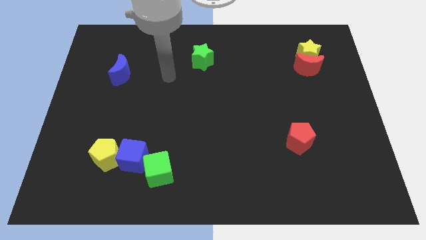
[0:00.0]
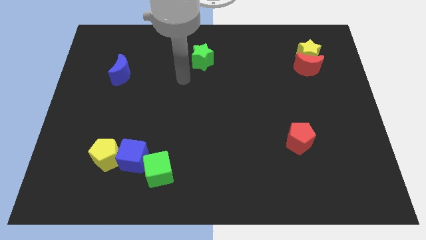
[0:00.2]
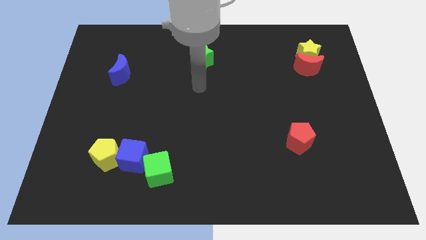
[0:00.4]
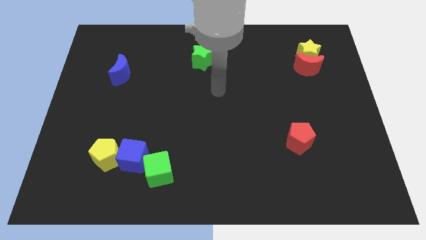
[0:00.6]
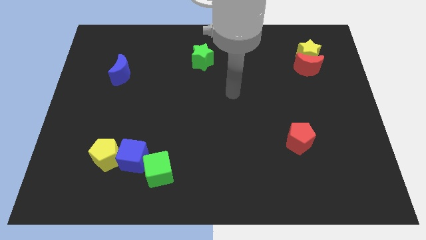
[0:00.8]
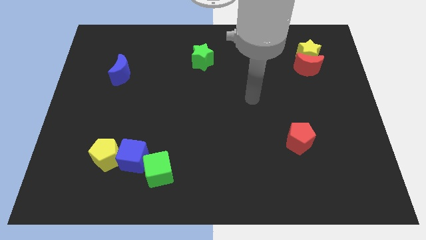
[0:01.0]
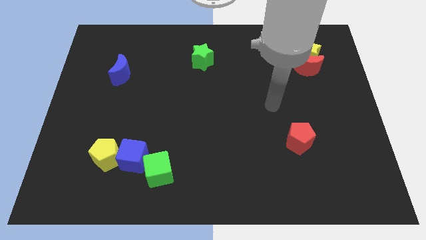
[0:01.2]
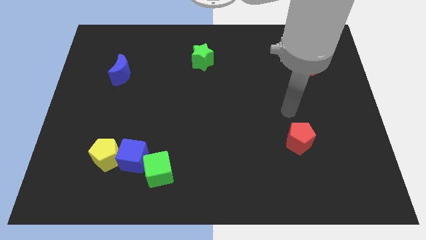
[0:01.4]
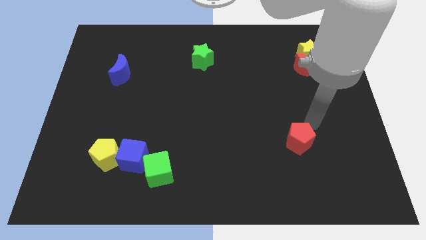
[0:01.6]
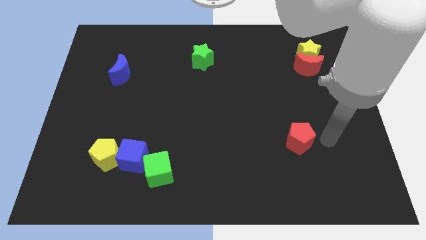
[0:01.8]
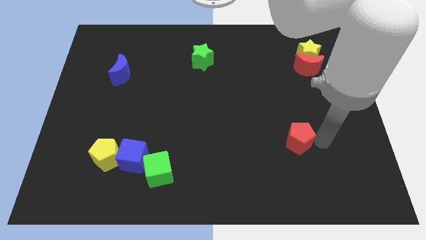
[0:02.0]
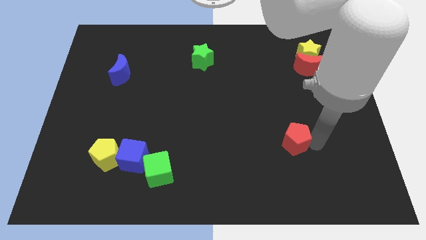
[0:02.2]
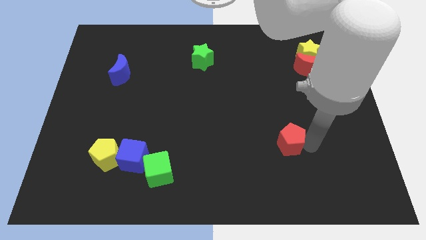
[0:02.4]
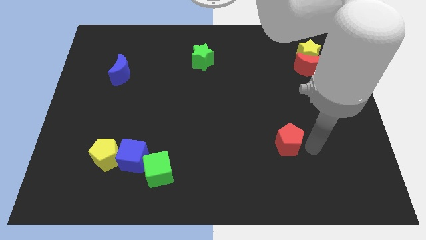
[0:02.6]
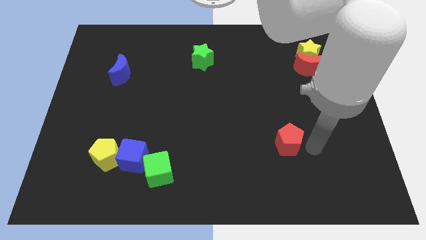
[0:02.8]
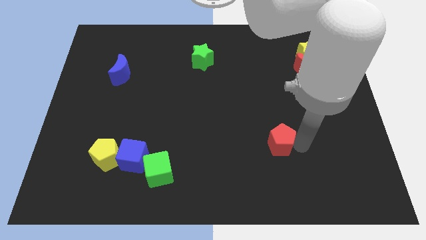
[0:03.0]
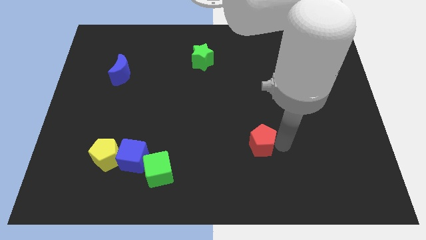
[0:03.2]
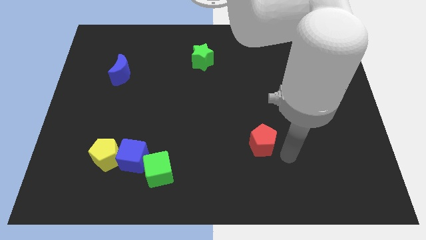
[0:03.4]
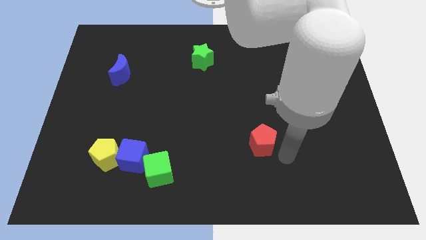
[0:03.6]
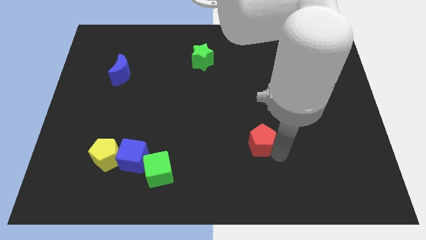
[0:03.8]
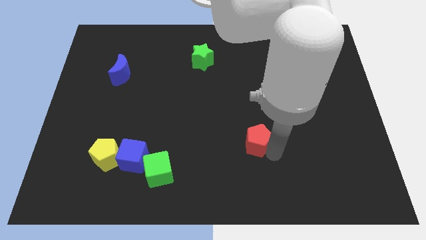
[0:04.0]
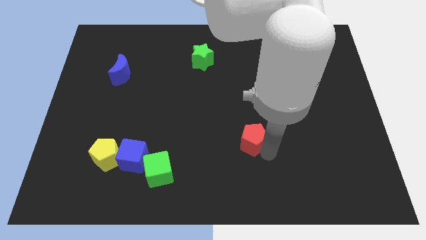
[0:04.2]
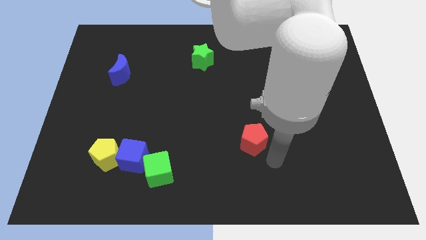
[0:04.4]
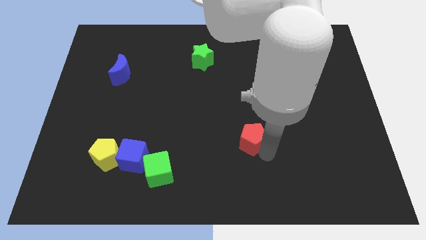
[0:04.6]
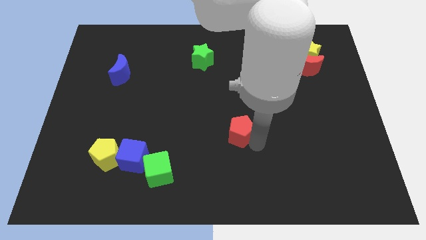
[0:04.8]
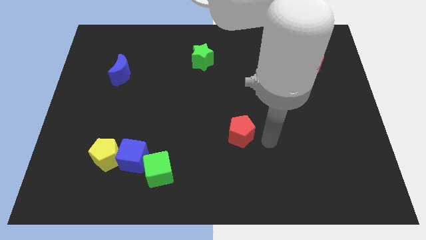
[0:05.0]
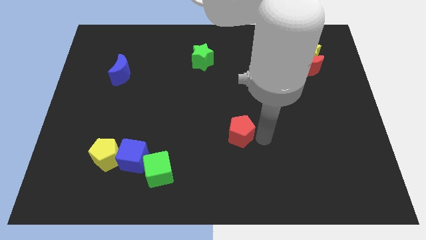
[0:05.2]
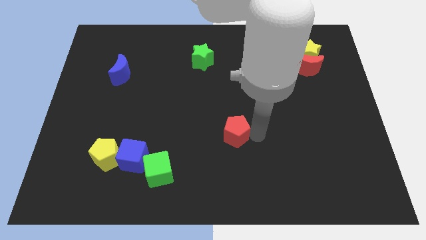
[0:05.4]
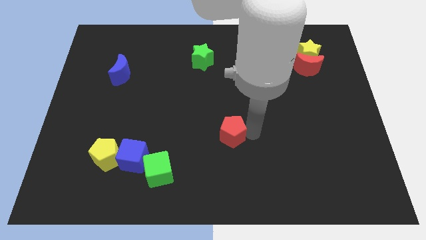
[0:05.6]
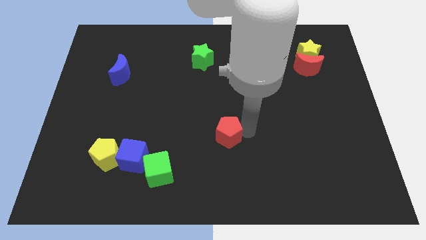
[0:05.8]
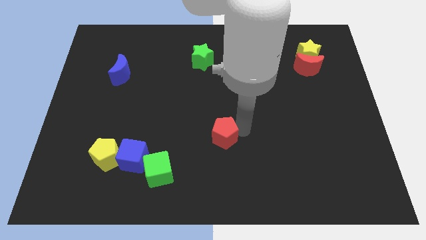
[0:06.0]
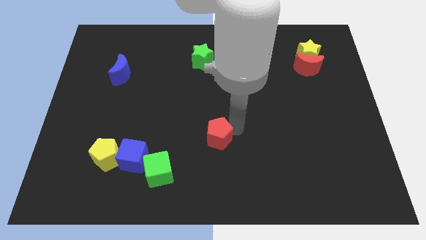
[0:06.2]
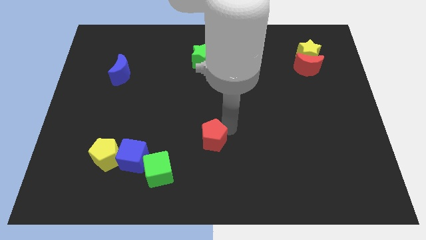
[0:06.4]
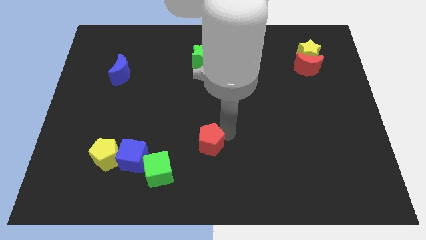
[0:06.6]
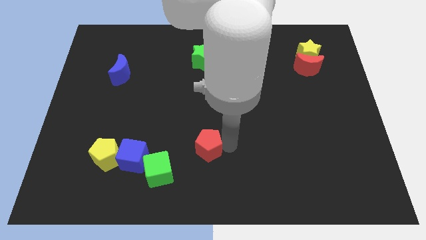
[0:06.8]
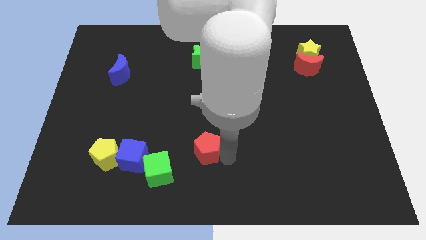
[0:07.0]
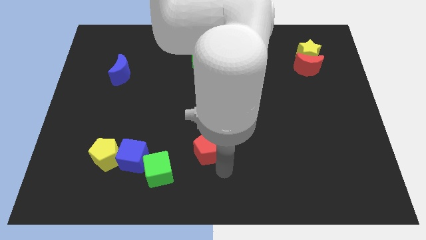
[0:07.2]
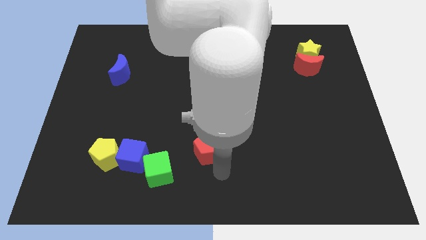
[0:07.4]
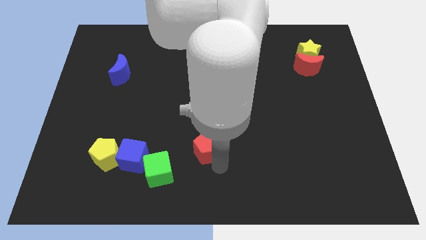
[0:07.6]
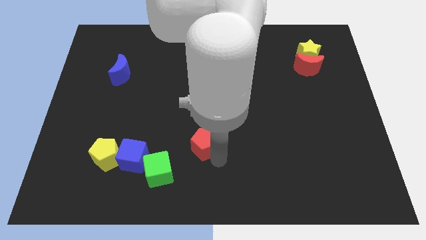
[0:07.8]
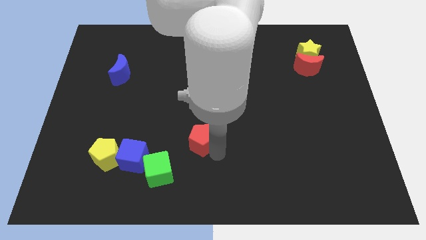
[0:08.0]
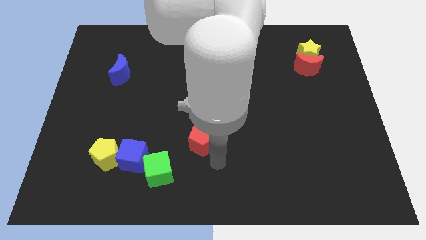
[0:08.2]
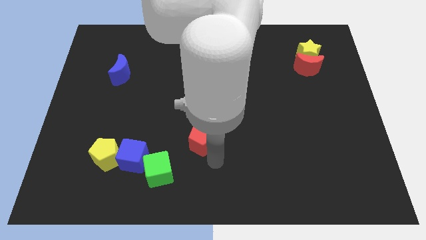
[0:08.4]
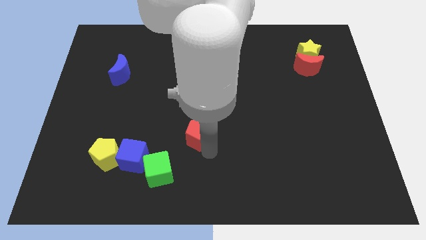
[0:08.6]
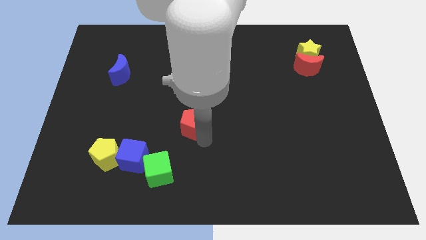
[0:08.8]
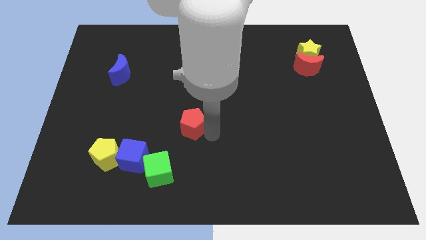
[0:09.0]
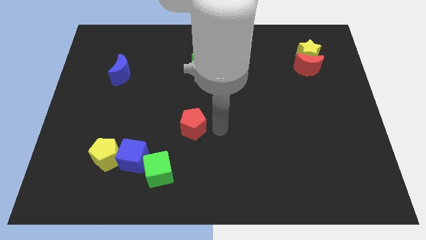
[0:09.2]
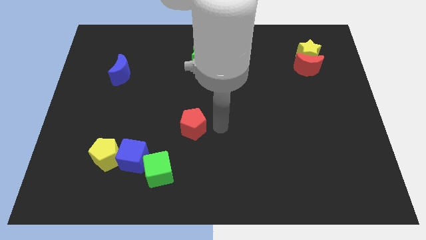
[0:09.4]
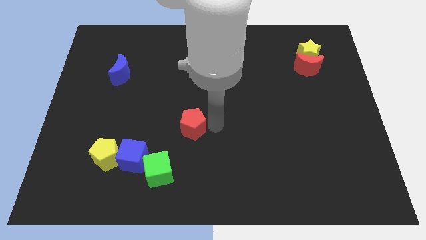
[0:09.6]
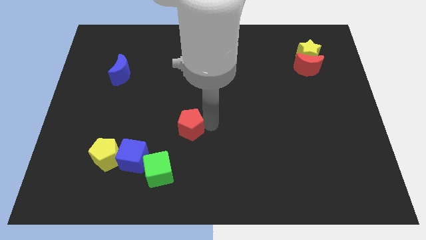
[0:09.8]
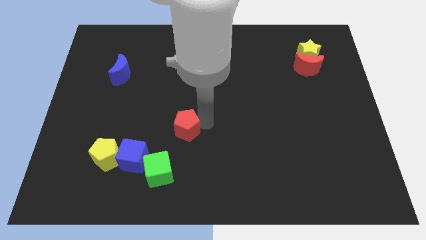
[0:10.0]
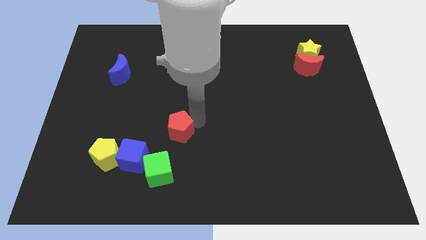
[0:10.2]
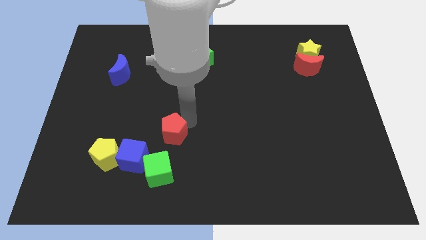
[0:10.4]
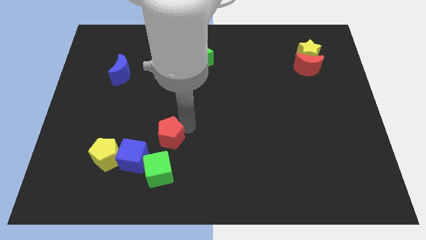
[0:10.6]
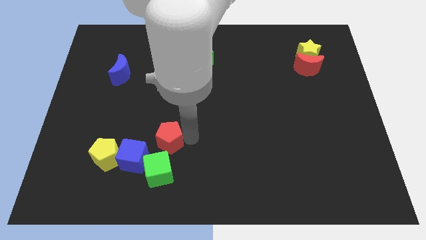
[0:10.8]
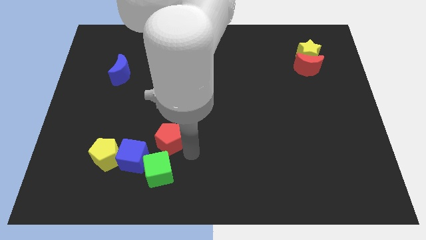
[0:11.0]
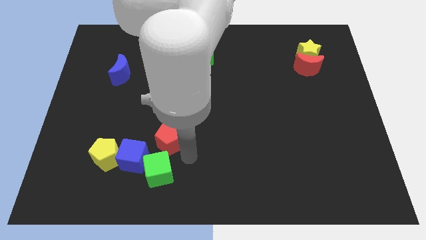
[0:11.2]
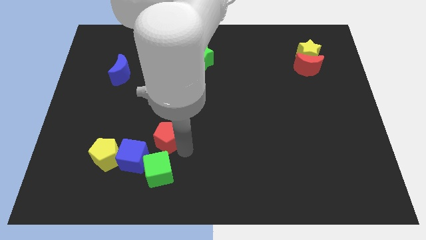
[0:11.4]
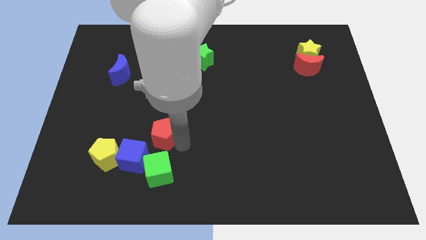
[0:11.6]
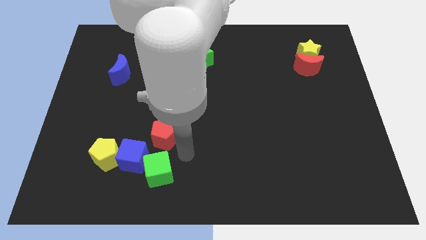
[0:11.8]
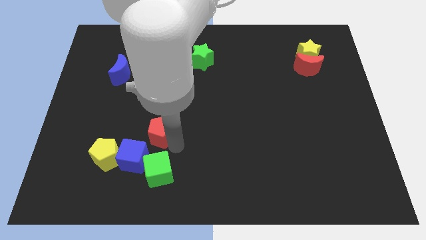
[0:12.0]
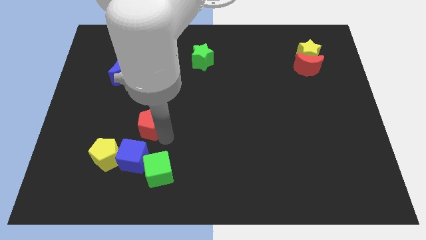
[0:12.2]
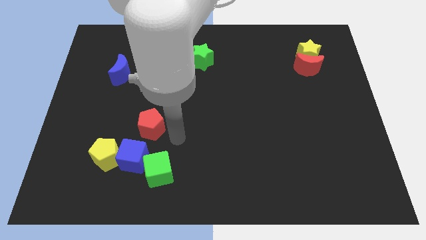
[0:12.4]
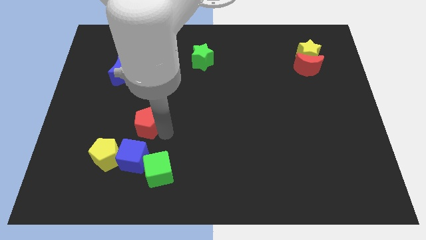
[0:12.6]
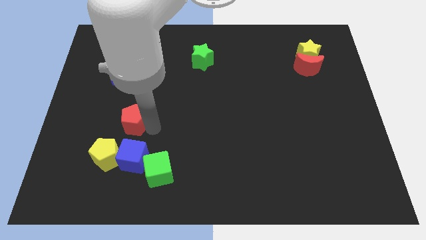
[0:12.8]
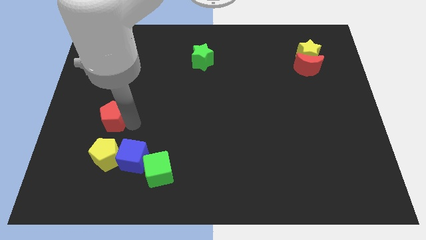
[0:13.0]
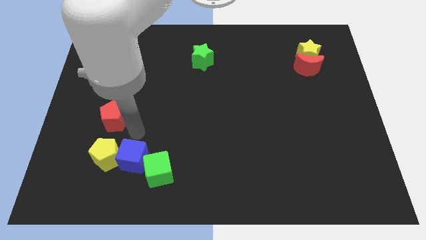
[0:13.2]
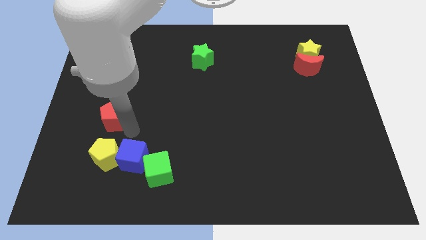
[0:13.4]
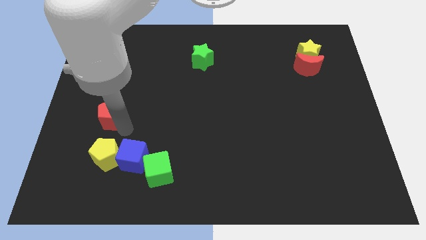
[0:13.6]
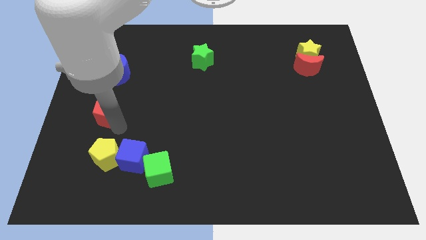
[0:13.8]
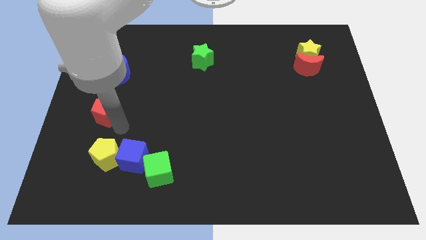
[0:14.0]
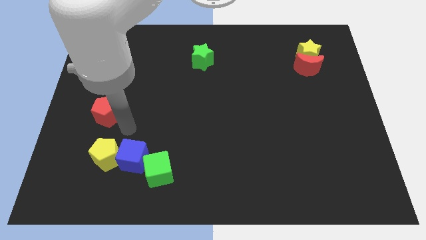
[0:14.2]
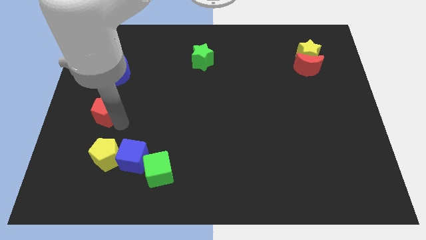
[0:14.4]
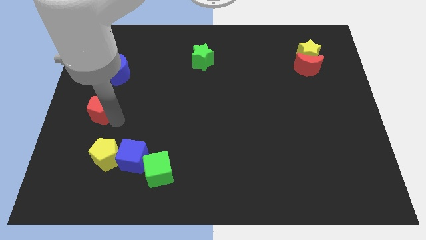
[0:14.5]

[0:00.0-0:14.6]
move the red pentagon to the left side
